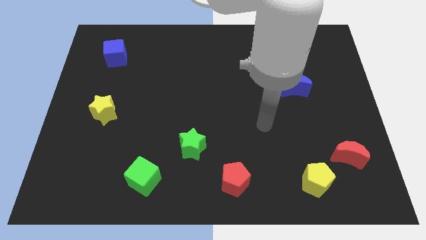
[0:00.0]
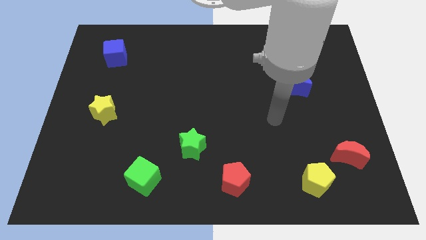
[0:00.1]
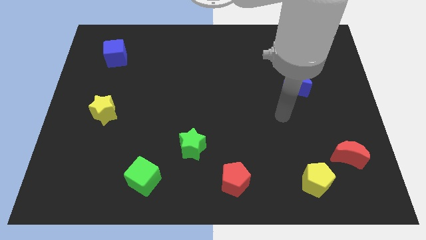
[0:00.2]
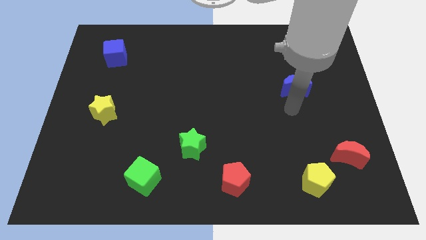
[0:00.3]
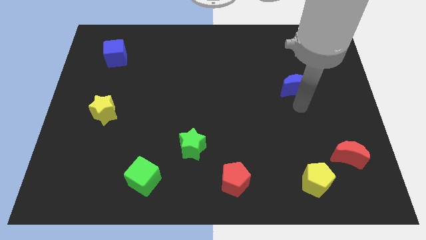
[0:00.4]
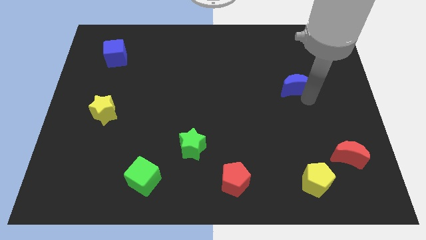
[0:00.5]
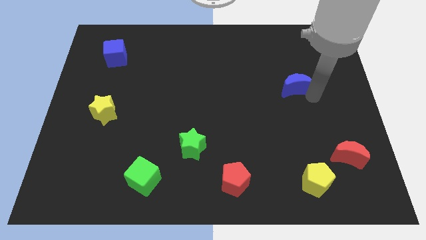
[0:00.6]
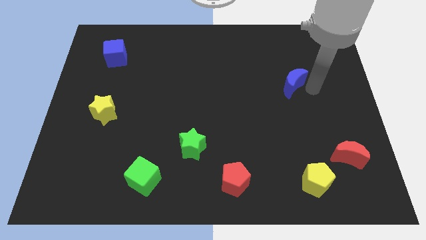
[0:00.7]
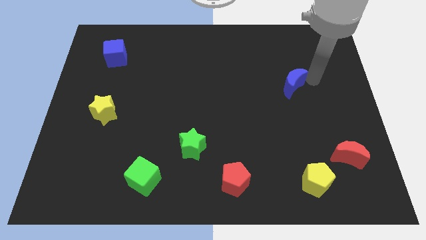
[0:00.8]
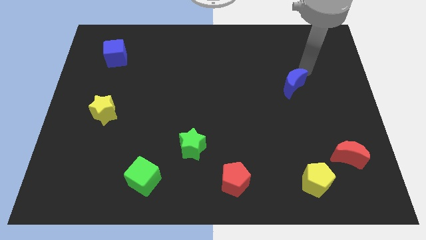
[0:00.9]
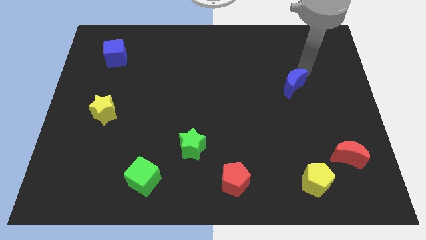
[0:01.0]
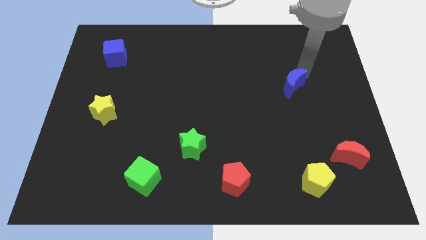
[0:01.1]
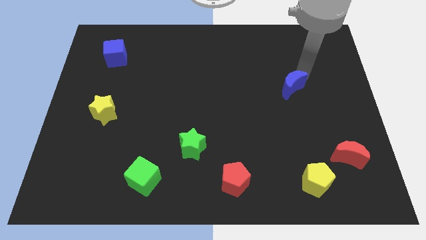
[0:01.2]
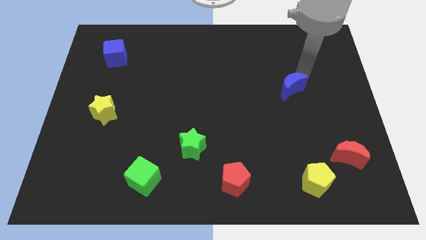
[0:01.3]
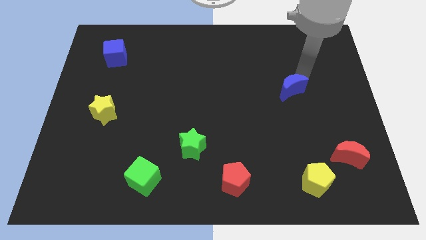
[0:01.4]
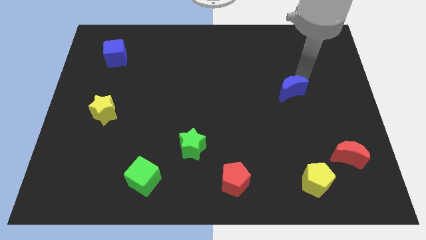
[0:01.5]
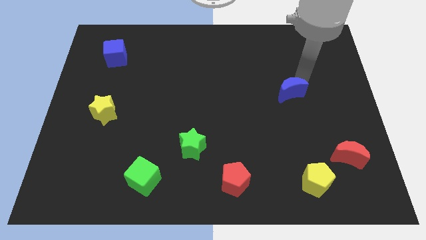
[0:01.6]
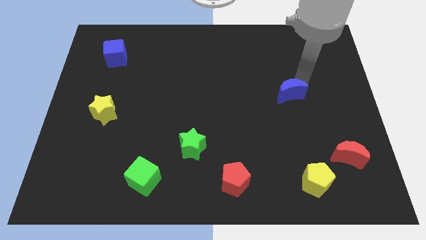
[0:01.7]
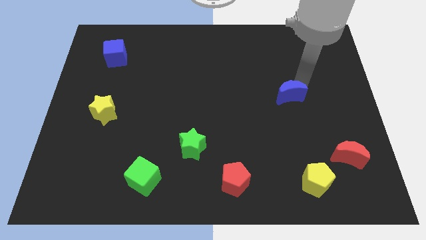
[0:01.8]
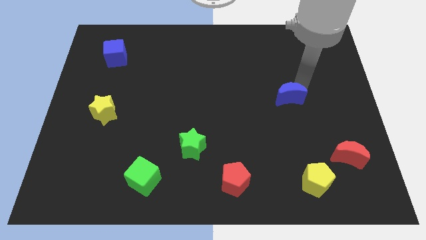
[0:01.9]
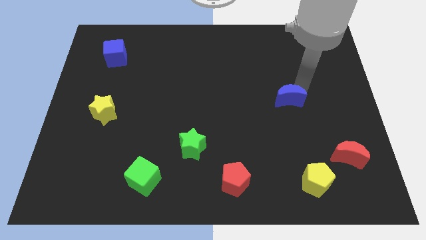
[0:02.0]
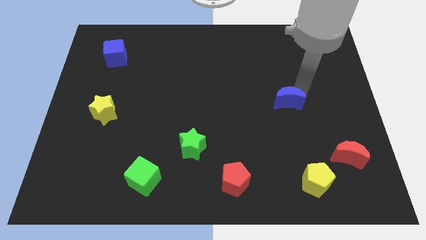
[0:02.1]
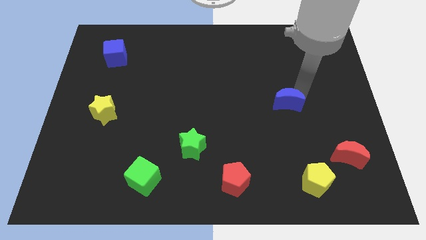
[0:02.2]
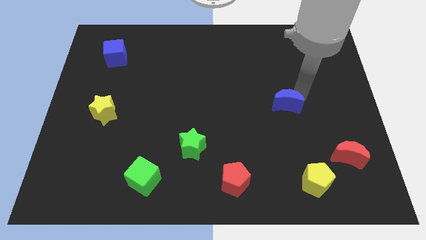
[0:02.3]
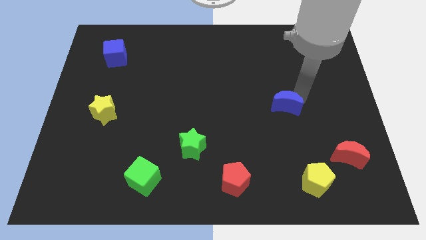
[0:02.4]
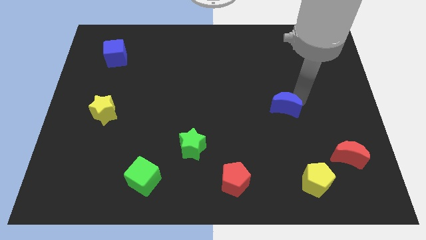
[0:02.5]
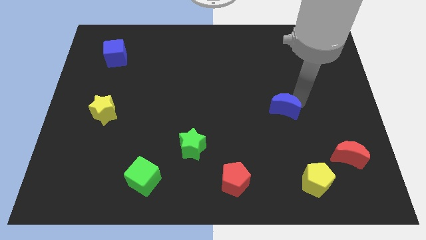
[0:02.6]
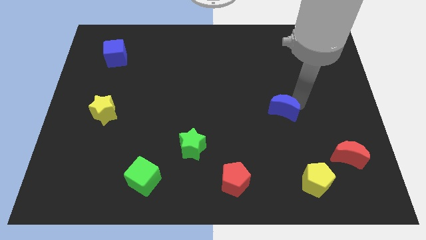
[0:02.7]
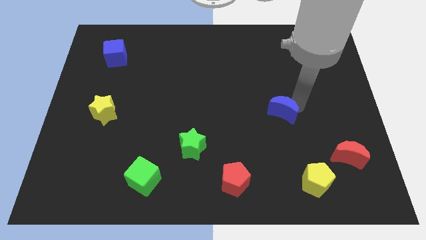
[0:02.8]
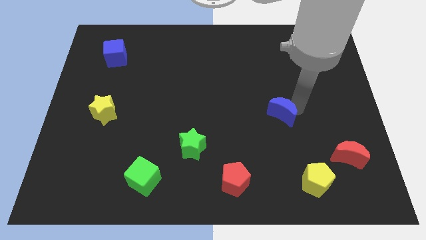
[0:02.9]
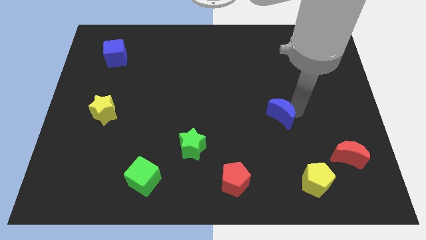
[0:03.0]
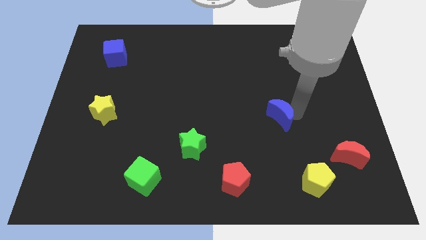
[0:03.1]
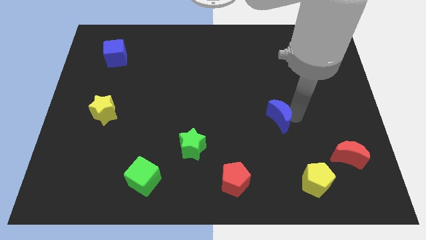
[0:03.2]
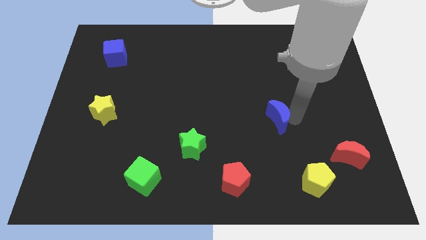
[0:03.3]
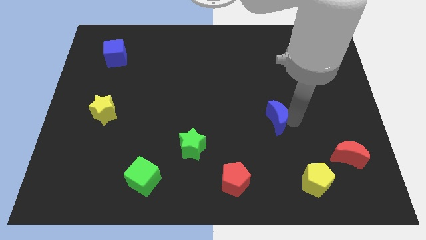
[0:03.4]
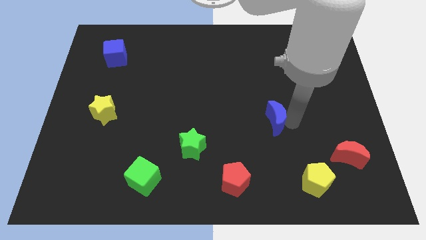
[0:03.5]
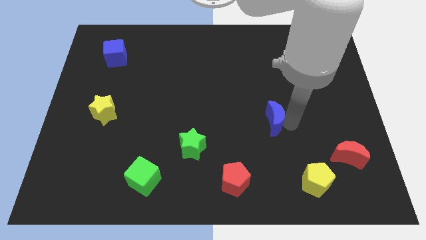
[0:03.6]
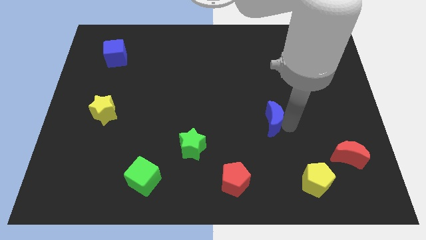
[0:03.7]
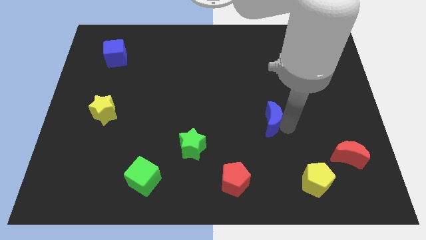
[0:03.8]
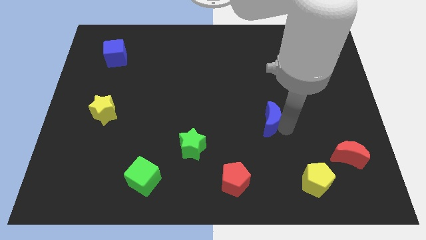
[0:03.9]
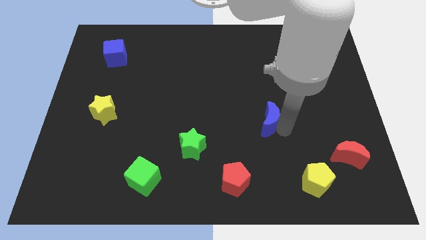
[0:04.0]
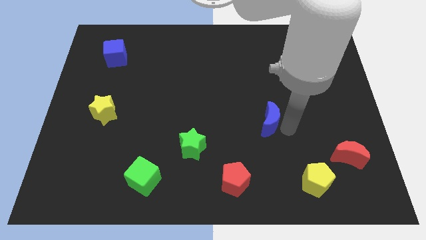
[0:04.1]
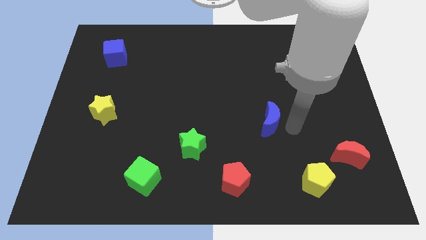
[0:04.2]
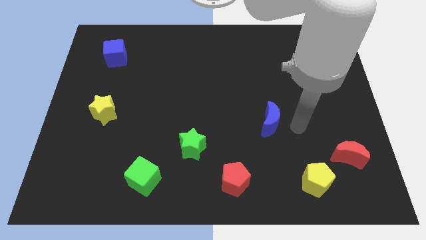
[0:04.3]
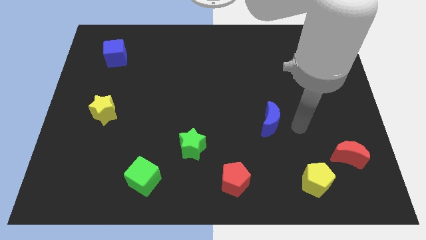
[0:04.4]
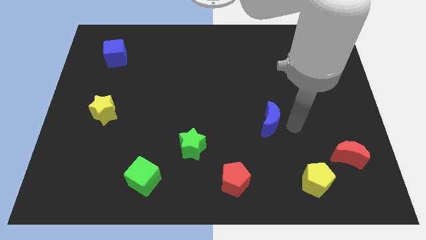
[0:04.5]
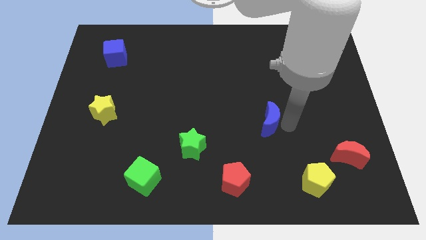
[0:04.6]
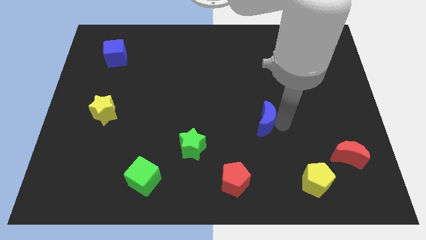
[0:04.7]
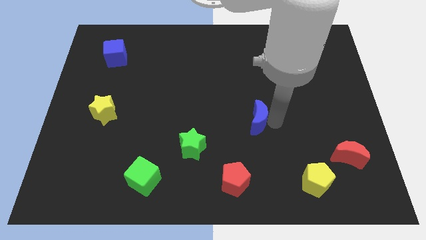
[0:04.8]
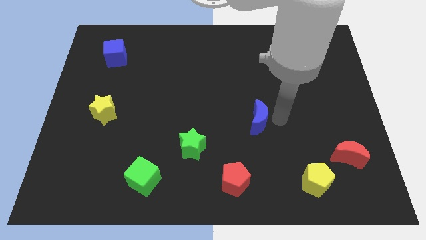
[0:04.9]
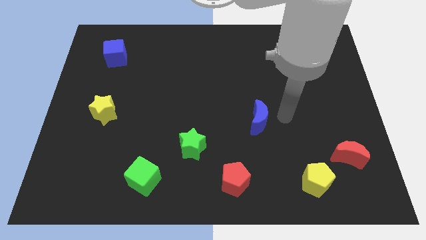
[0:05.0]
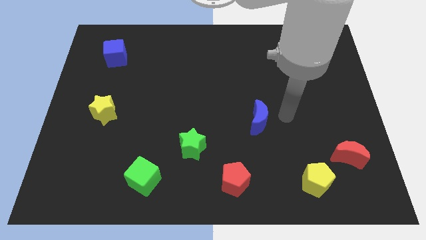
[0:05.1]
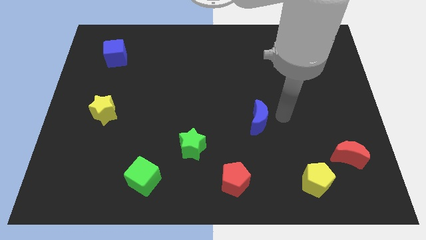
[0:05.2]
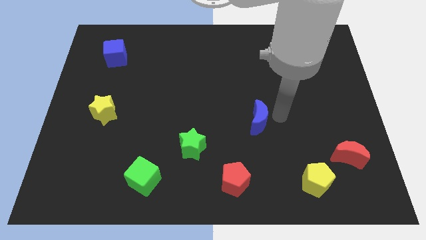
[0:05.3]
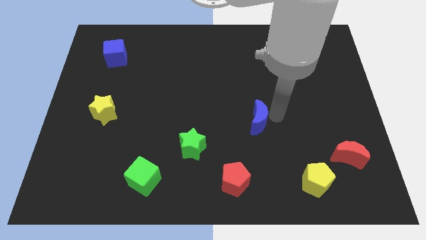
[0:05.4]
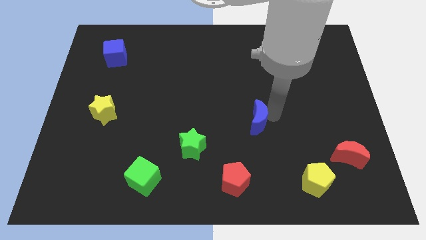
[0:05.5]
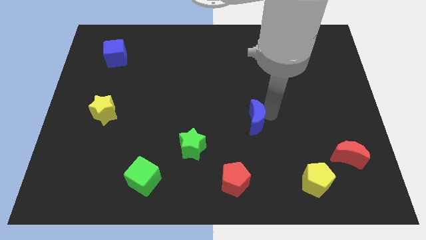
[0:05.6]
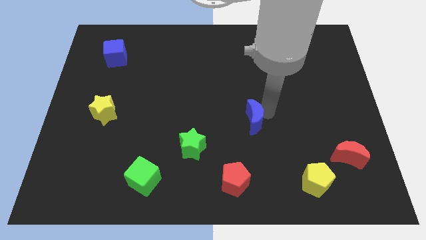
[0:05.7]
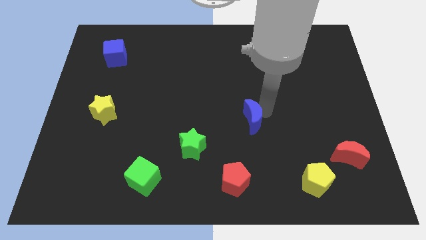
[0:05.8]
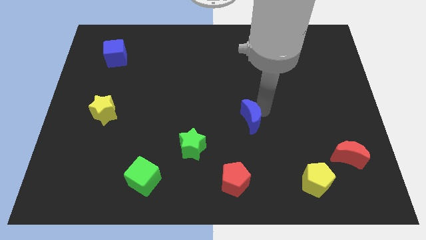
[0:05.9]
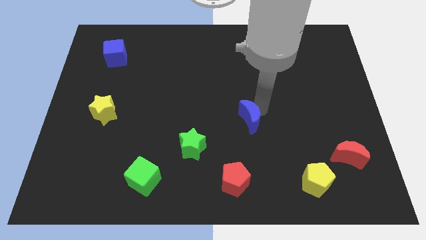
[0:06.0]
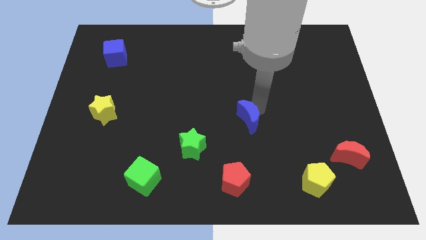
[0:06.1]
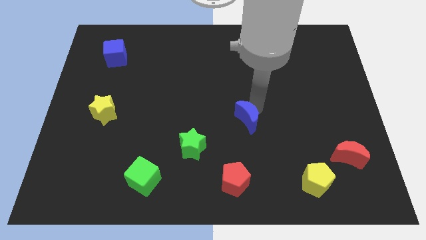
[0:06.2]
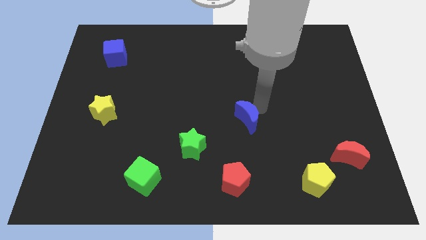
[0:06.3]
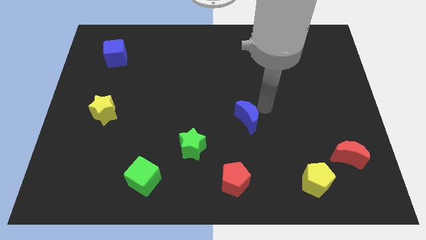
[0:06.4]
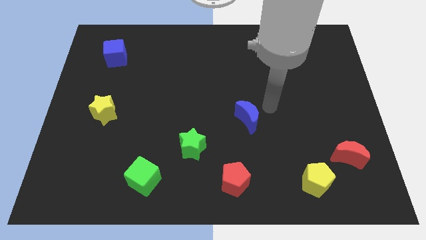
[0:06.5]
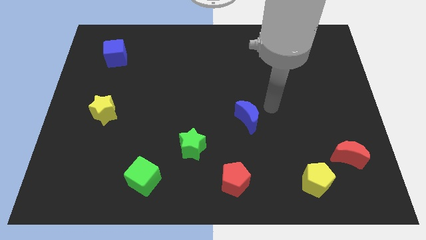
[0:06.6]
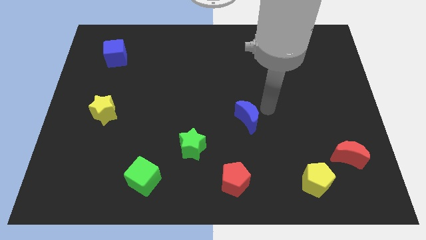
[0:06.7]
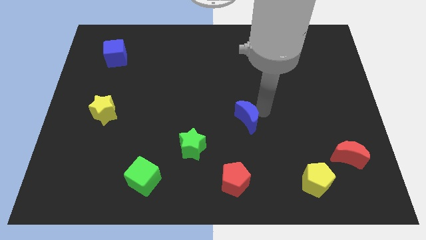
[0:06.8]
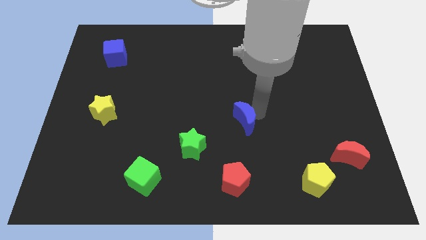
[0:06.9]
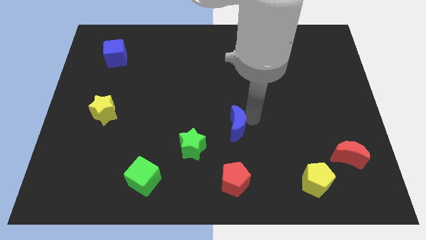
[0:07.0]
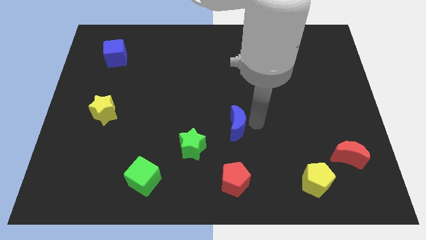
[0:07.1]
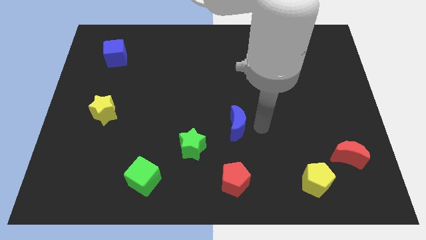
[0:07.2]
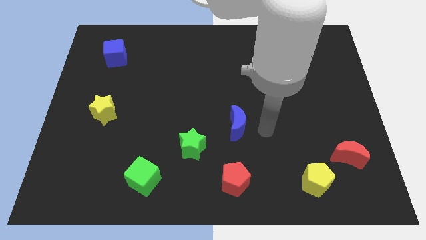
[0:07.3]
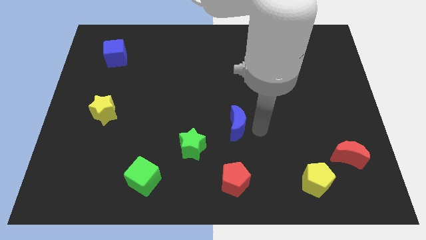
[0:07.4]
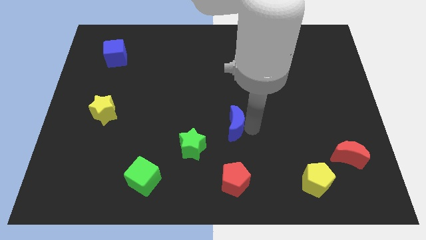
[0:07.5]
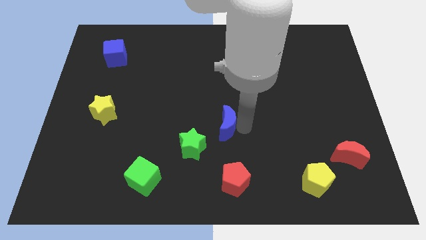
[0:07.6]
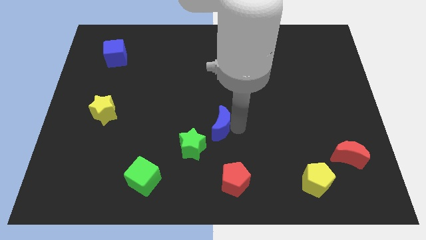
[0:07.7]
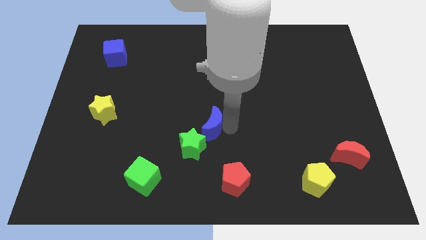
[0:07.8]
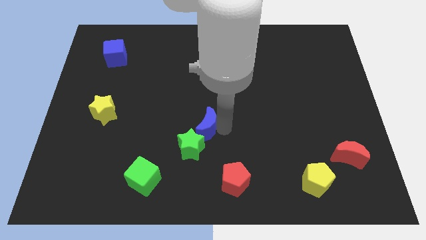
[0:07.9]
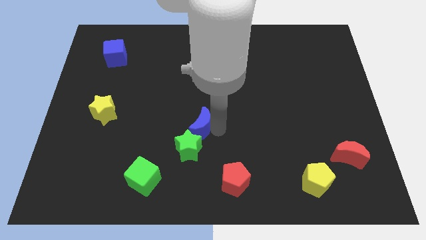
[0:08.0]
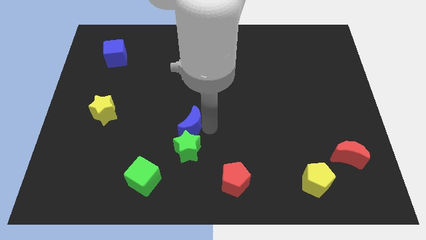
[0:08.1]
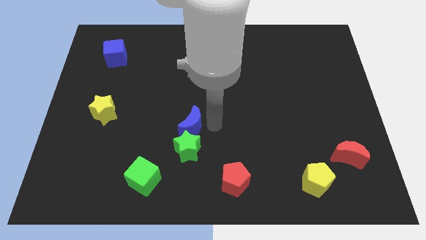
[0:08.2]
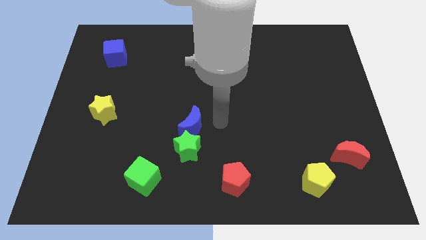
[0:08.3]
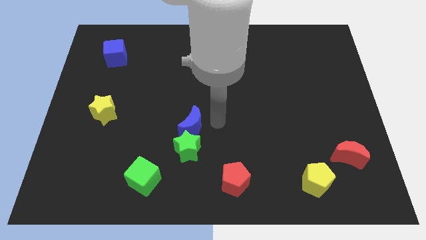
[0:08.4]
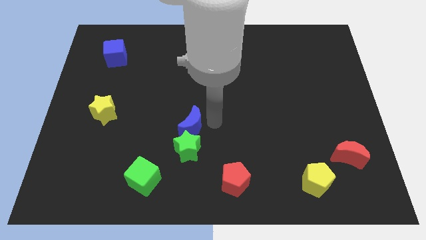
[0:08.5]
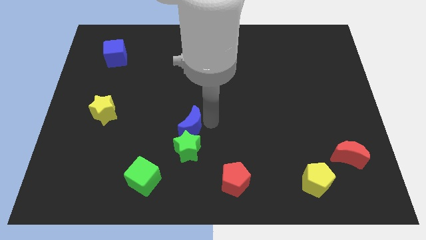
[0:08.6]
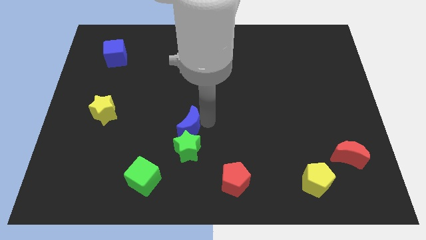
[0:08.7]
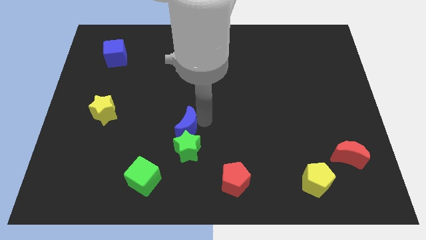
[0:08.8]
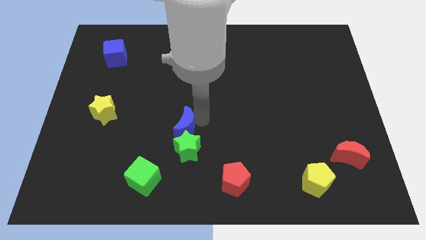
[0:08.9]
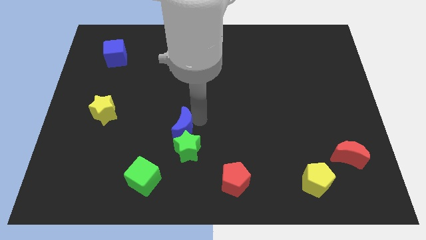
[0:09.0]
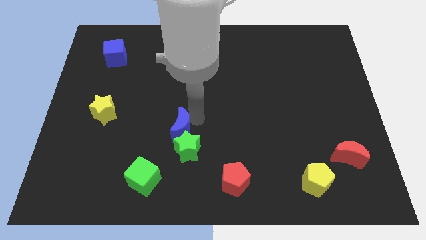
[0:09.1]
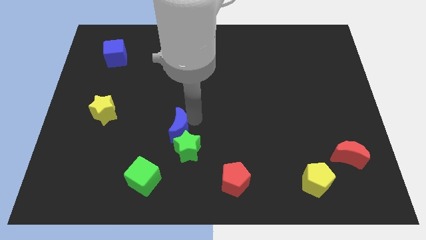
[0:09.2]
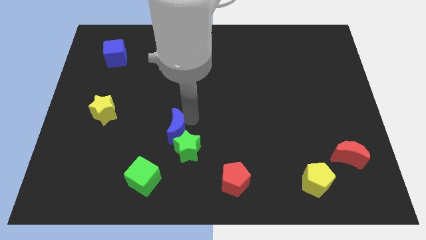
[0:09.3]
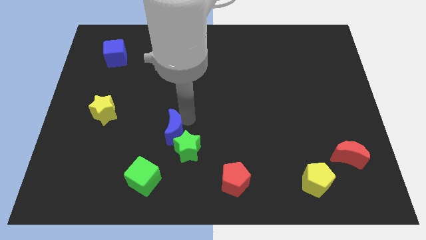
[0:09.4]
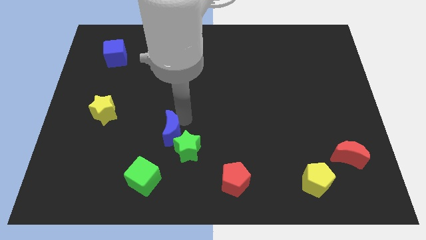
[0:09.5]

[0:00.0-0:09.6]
move the blue moon to the top side of the green cube
